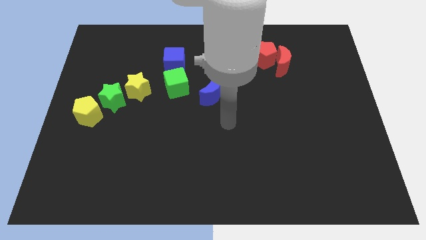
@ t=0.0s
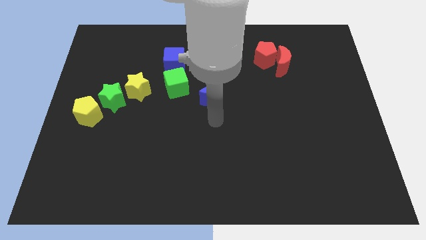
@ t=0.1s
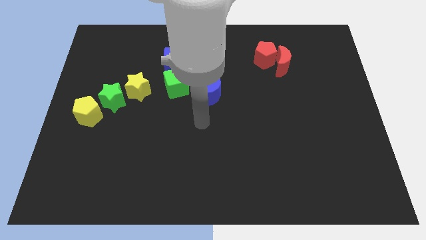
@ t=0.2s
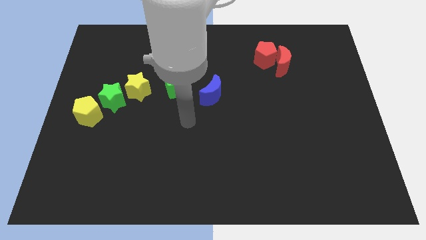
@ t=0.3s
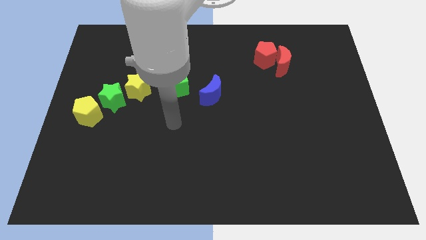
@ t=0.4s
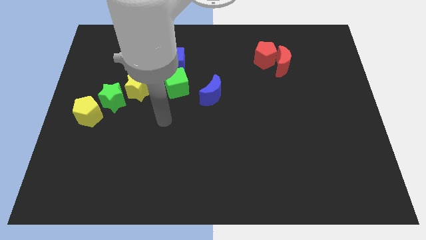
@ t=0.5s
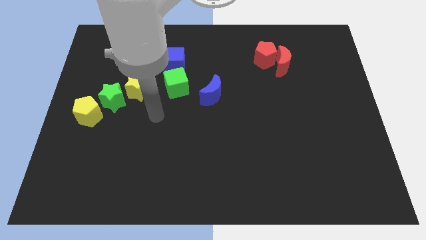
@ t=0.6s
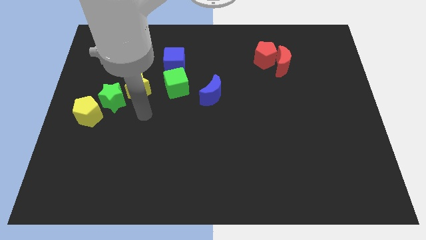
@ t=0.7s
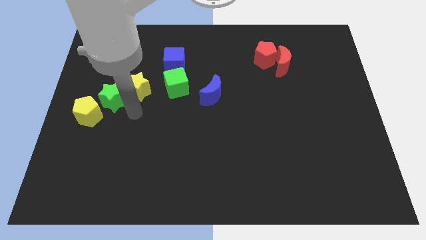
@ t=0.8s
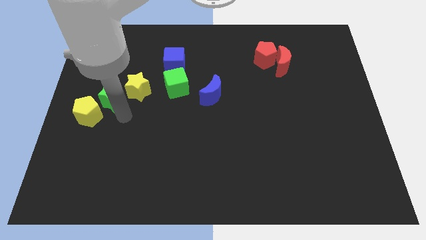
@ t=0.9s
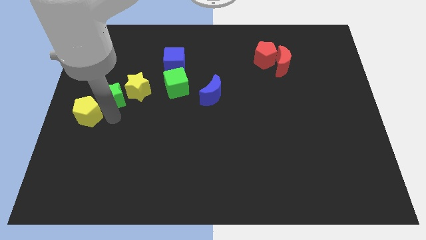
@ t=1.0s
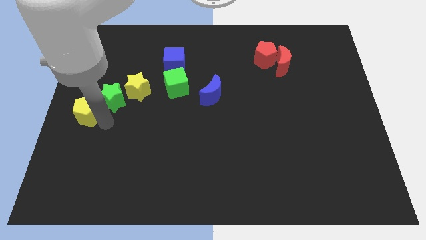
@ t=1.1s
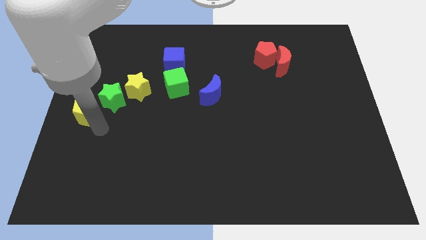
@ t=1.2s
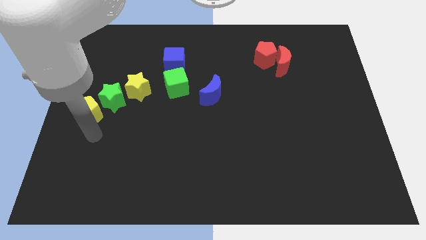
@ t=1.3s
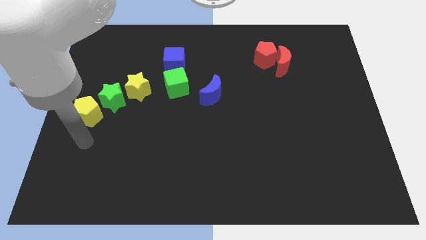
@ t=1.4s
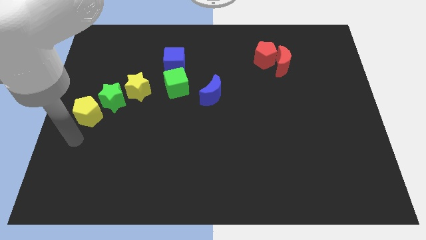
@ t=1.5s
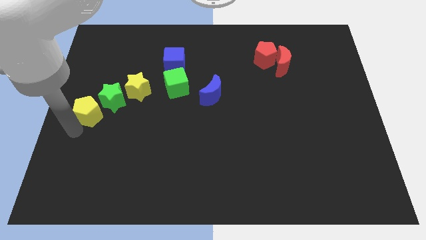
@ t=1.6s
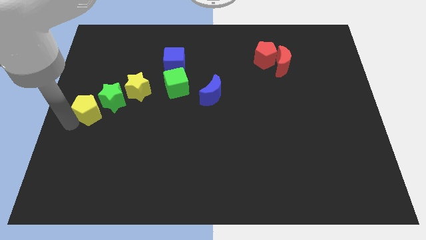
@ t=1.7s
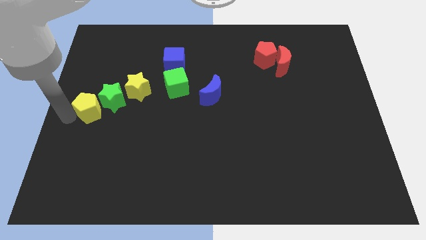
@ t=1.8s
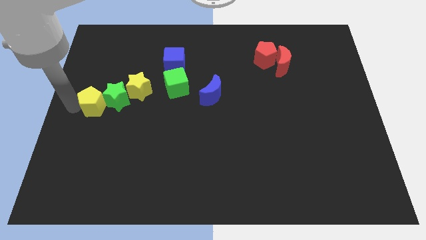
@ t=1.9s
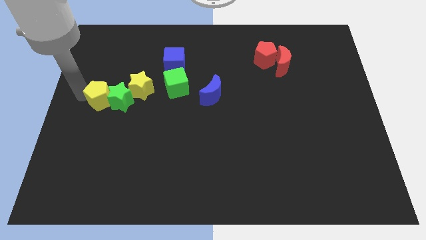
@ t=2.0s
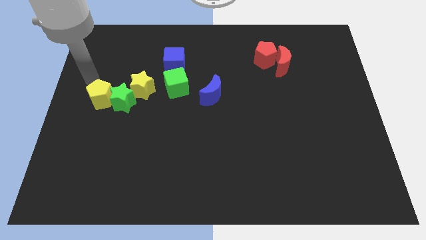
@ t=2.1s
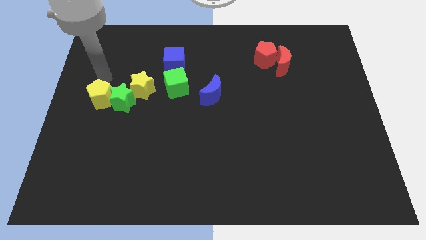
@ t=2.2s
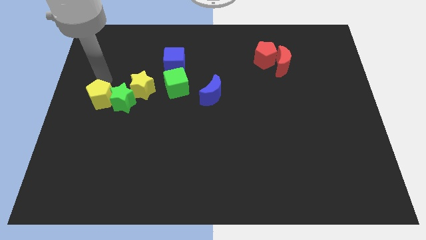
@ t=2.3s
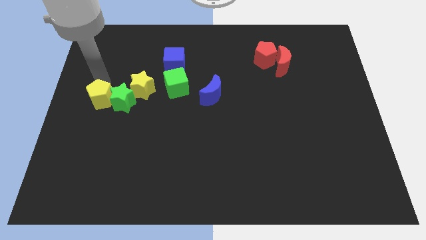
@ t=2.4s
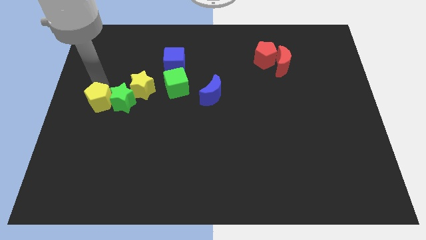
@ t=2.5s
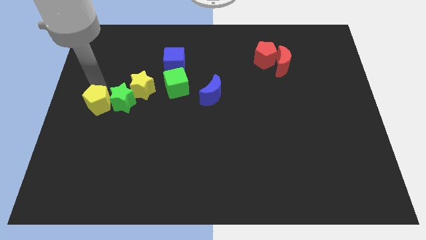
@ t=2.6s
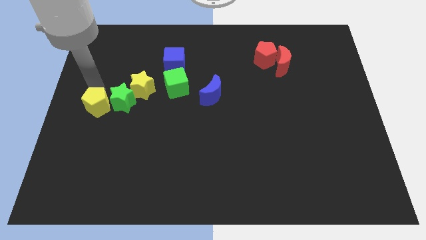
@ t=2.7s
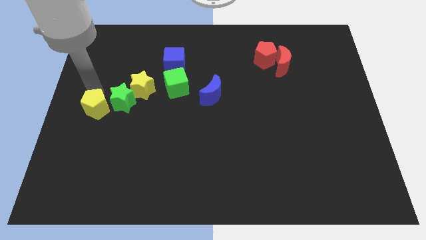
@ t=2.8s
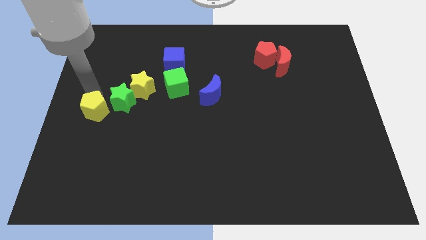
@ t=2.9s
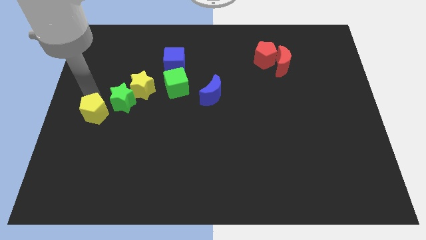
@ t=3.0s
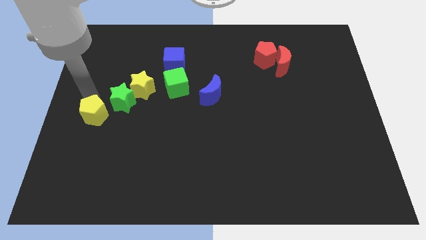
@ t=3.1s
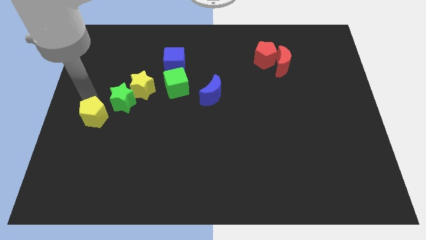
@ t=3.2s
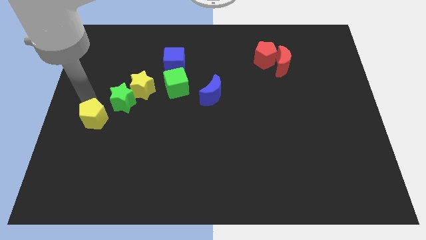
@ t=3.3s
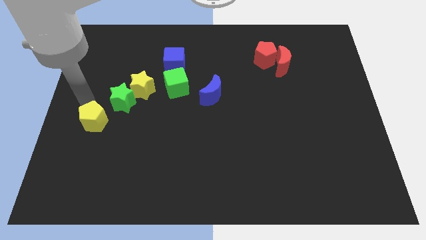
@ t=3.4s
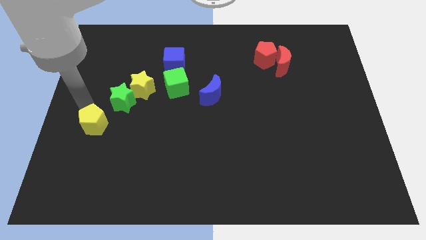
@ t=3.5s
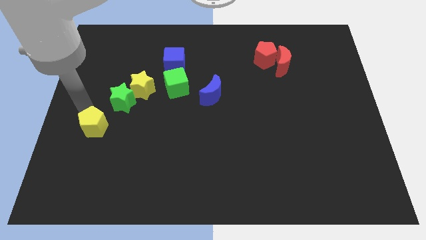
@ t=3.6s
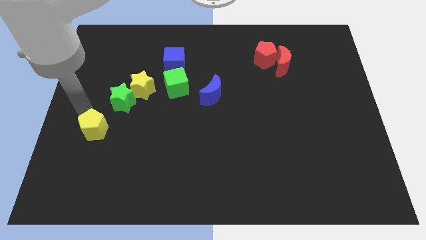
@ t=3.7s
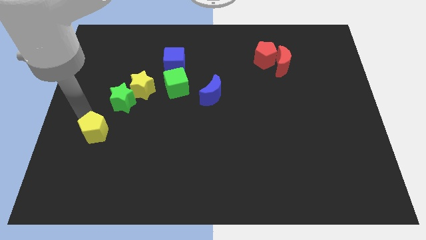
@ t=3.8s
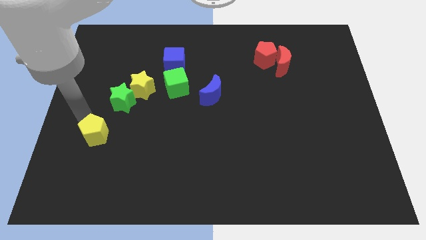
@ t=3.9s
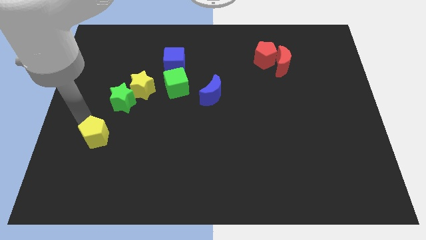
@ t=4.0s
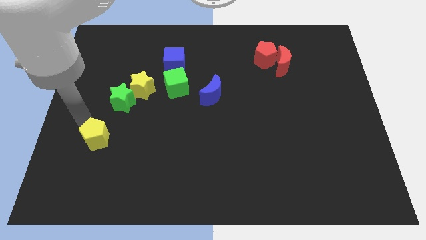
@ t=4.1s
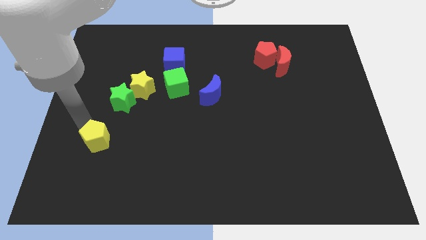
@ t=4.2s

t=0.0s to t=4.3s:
slide the yellow pentagon a little down and then to the right

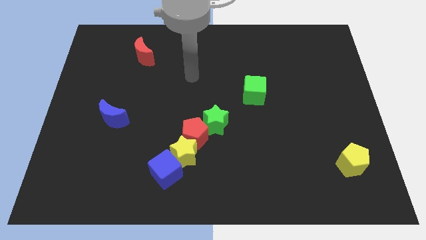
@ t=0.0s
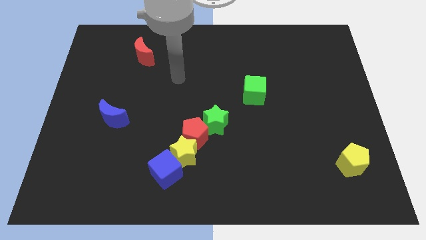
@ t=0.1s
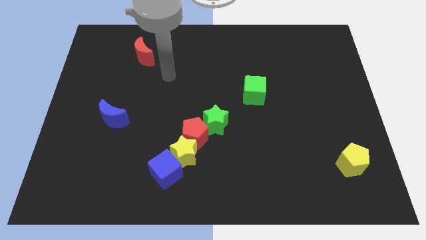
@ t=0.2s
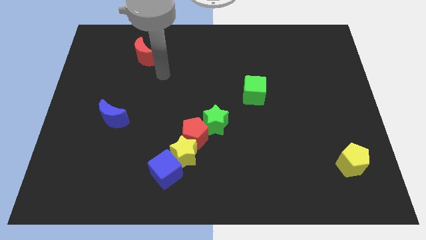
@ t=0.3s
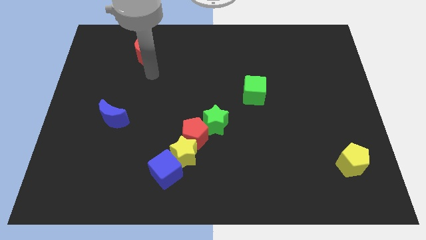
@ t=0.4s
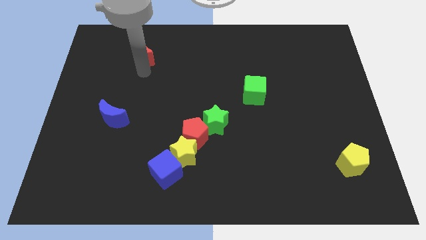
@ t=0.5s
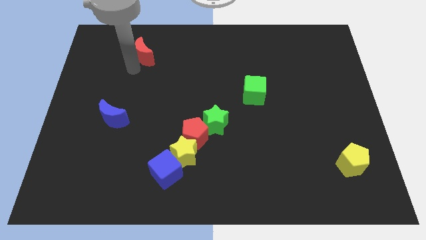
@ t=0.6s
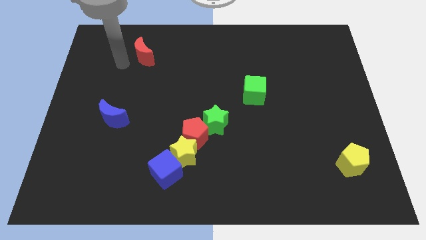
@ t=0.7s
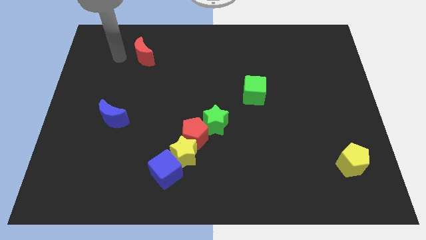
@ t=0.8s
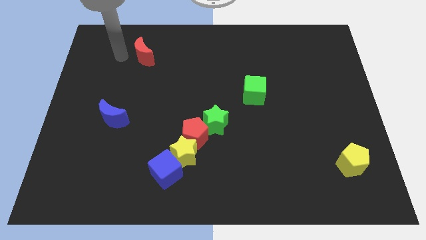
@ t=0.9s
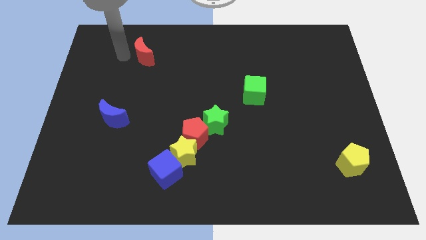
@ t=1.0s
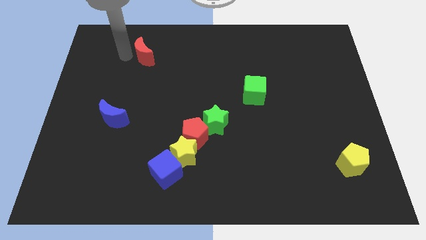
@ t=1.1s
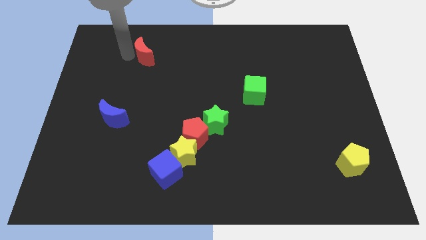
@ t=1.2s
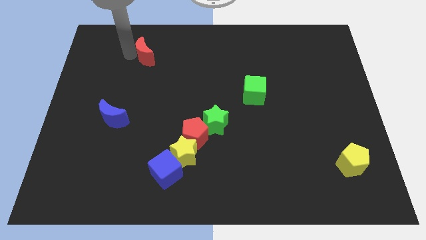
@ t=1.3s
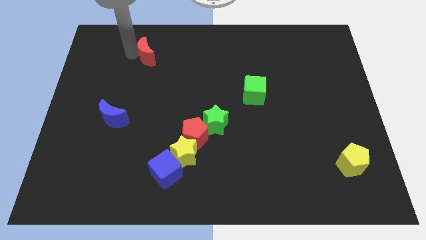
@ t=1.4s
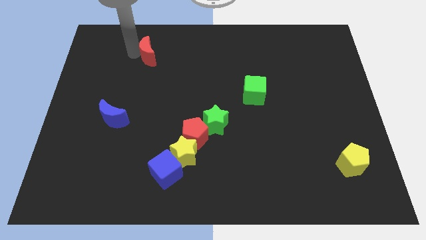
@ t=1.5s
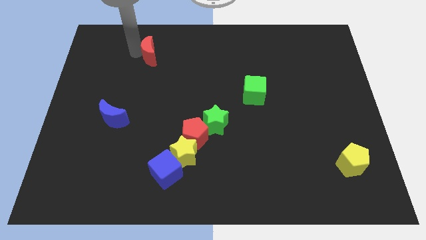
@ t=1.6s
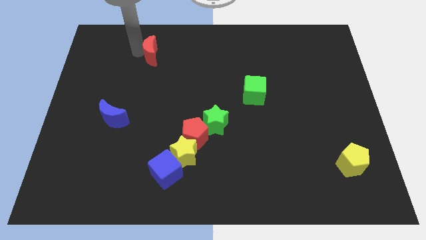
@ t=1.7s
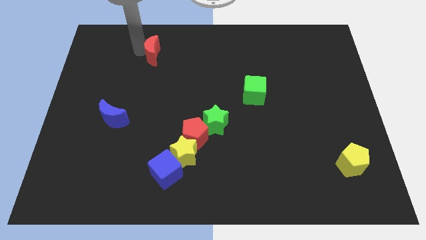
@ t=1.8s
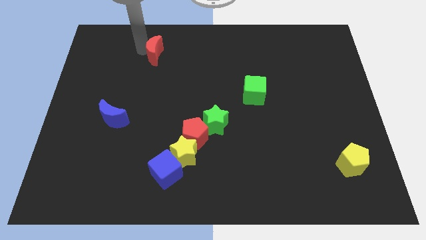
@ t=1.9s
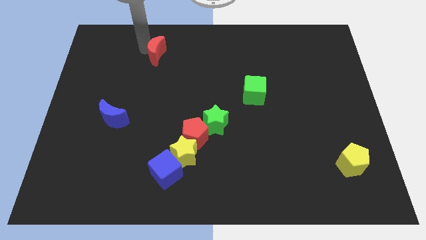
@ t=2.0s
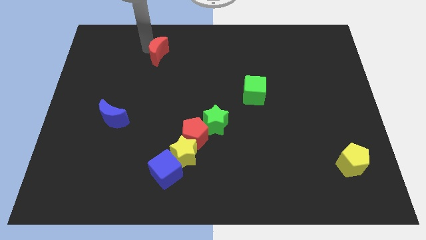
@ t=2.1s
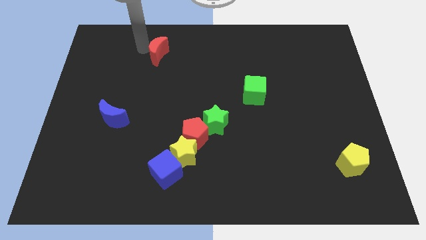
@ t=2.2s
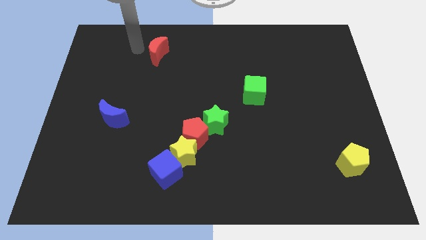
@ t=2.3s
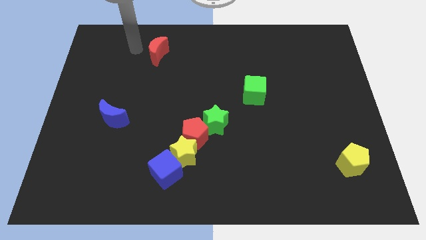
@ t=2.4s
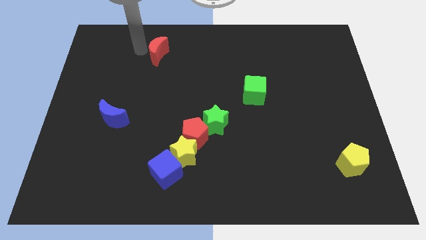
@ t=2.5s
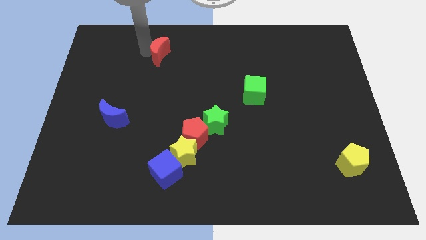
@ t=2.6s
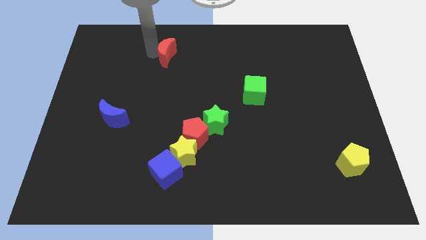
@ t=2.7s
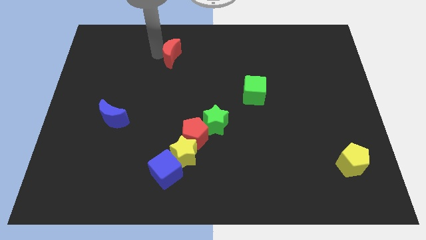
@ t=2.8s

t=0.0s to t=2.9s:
slightly move the red moon to the right

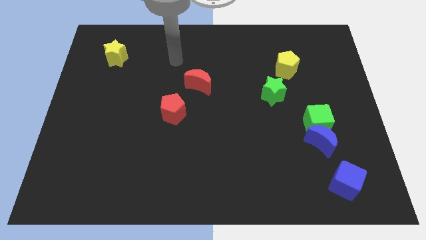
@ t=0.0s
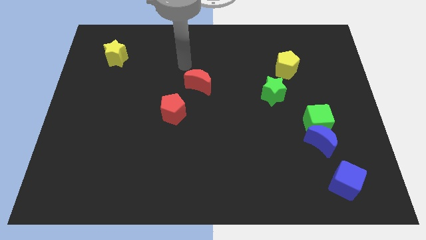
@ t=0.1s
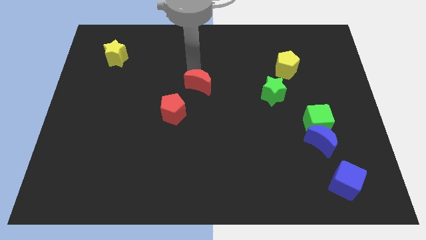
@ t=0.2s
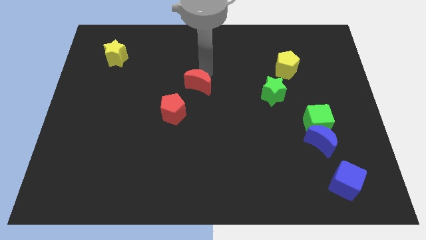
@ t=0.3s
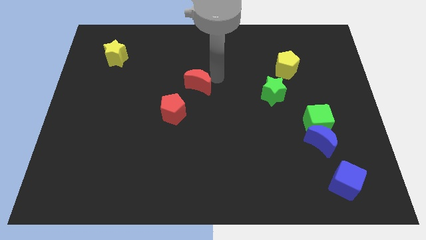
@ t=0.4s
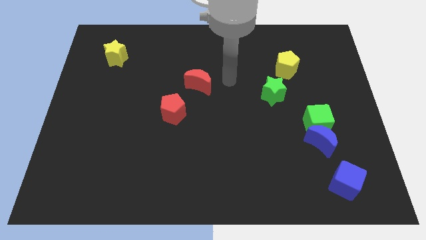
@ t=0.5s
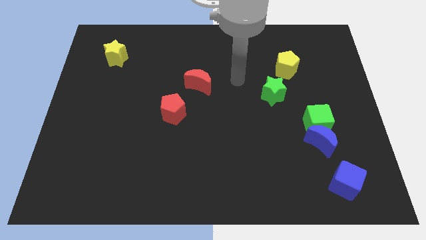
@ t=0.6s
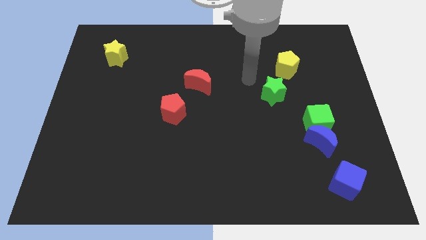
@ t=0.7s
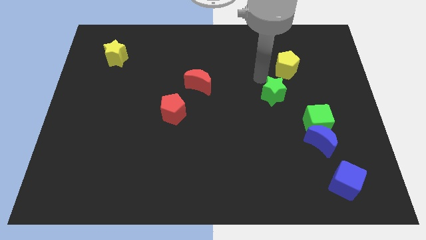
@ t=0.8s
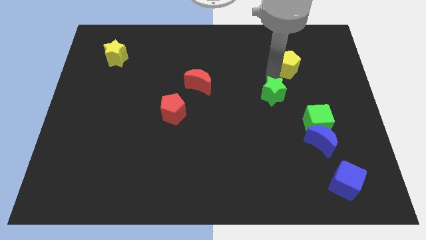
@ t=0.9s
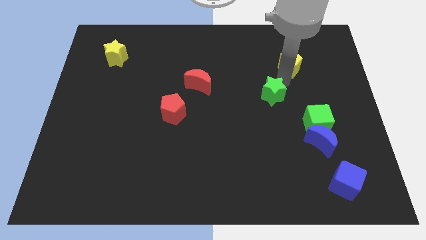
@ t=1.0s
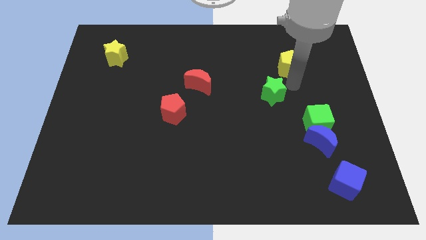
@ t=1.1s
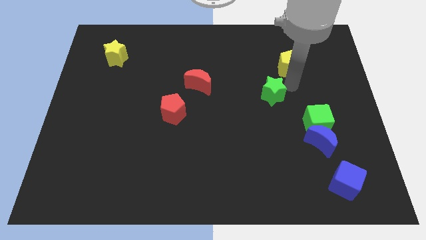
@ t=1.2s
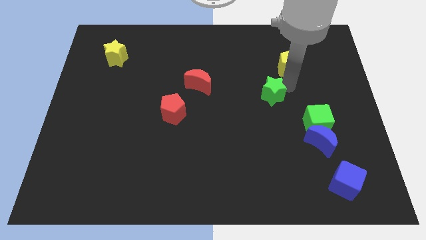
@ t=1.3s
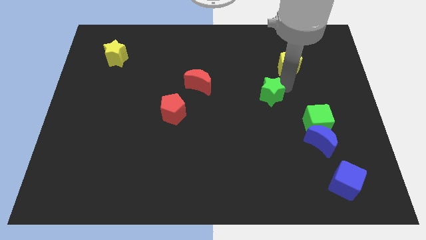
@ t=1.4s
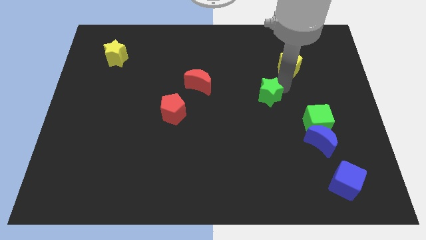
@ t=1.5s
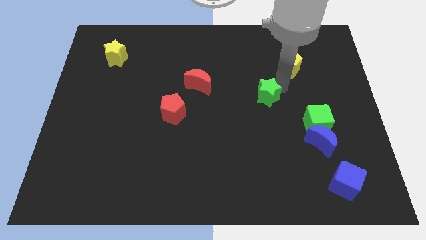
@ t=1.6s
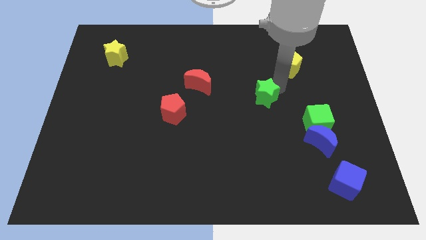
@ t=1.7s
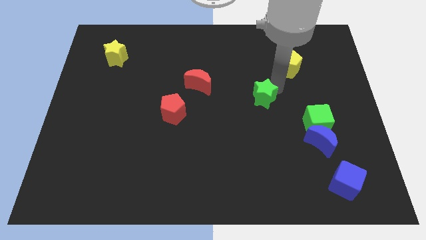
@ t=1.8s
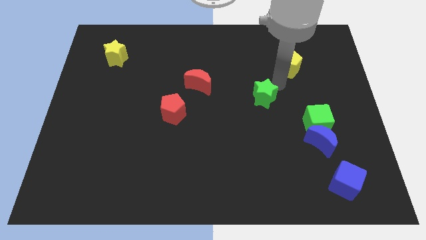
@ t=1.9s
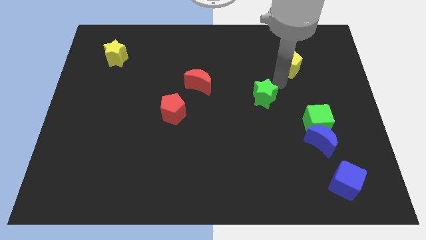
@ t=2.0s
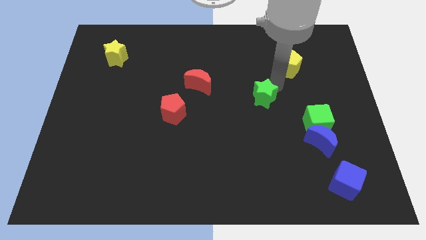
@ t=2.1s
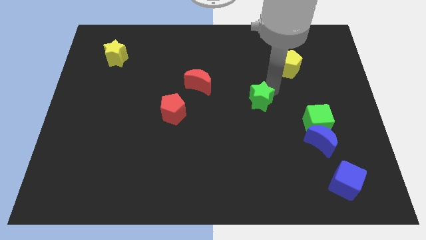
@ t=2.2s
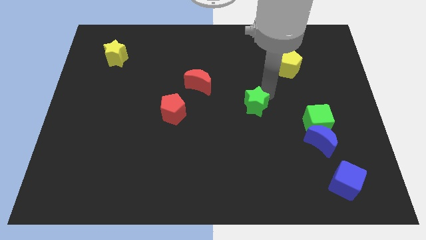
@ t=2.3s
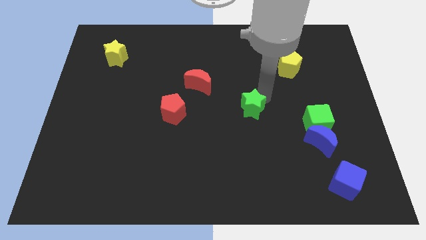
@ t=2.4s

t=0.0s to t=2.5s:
slightly slide the green star down and to the left
